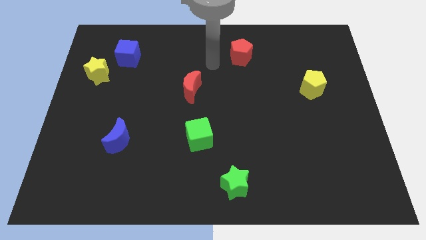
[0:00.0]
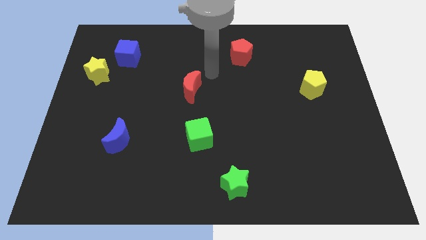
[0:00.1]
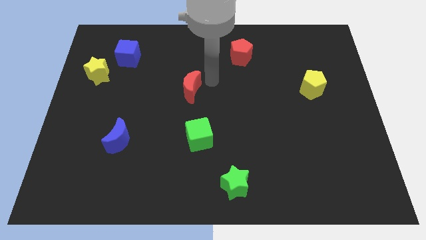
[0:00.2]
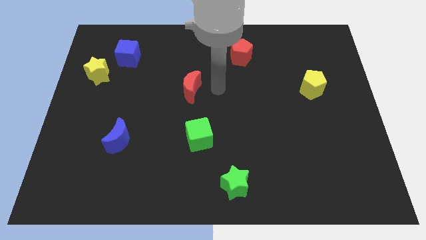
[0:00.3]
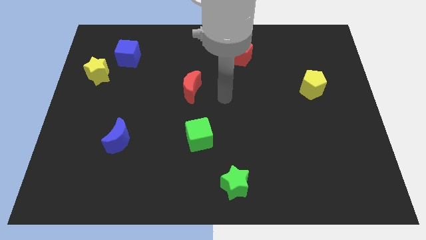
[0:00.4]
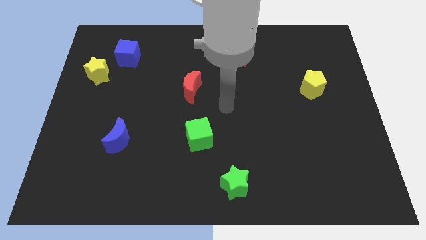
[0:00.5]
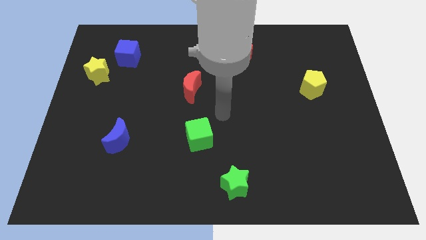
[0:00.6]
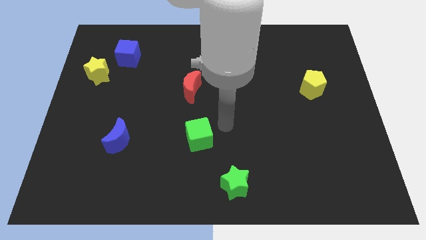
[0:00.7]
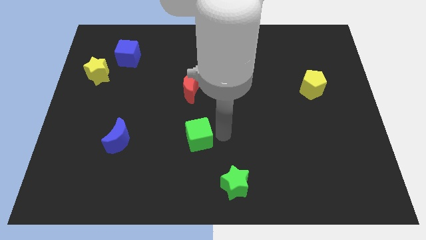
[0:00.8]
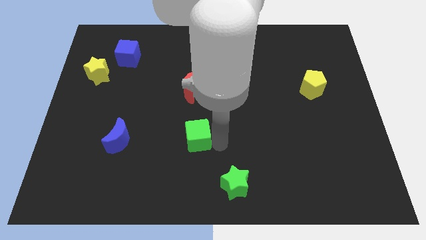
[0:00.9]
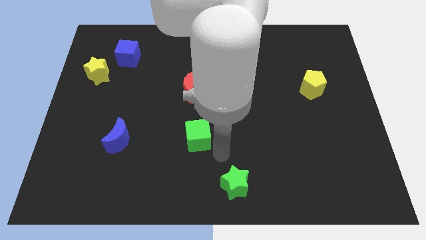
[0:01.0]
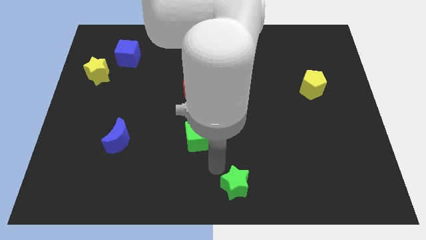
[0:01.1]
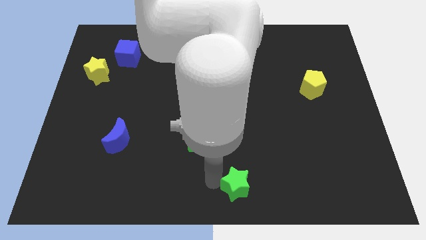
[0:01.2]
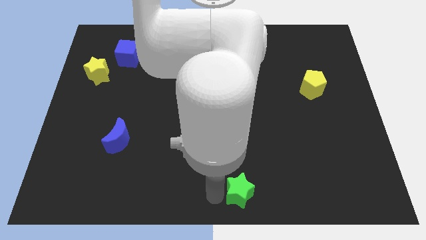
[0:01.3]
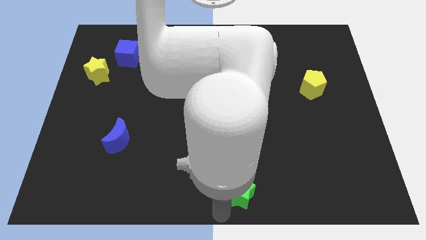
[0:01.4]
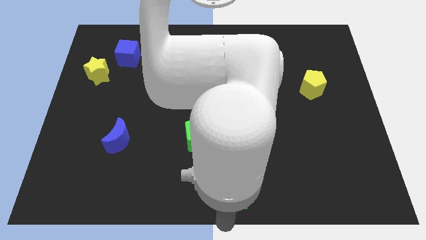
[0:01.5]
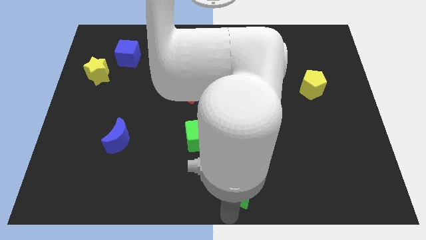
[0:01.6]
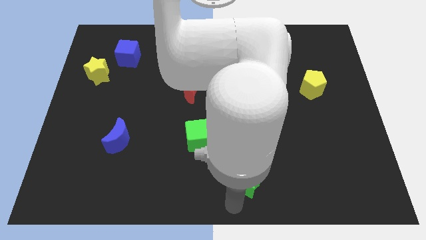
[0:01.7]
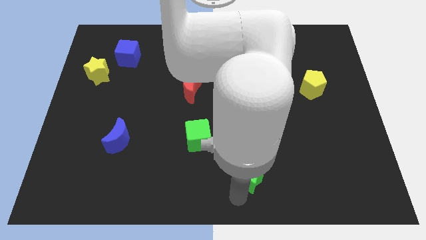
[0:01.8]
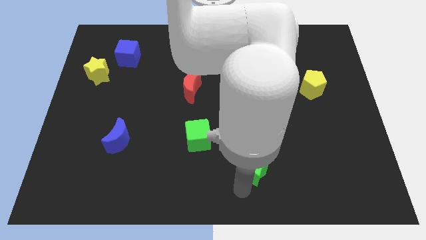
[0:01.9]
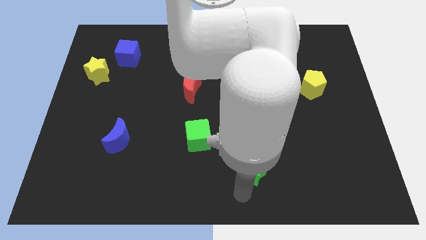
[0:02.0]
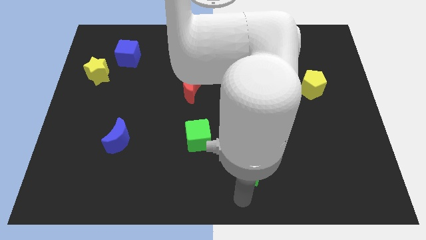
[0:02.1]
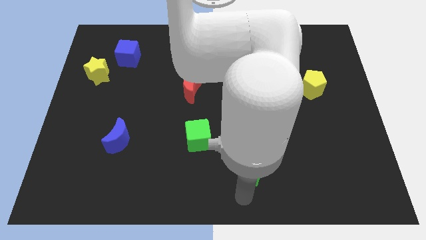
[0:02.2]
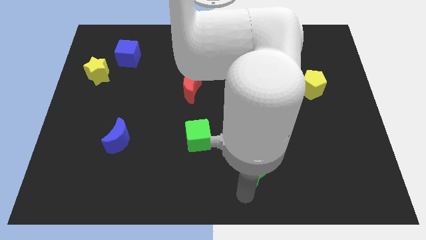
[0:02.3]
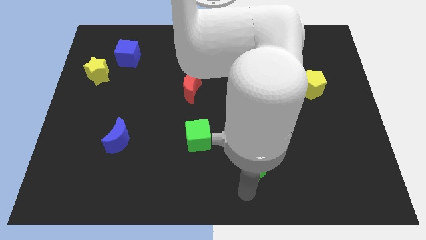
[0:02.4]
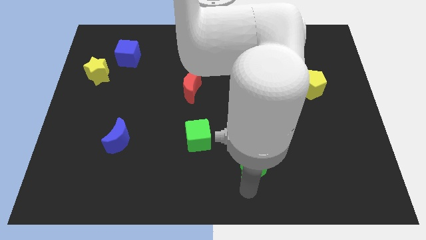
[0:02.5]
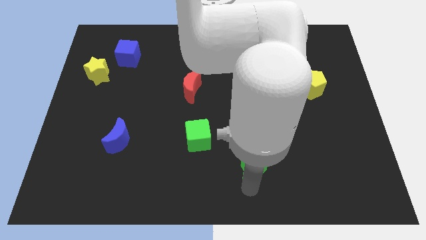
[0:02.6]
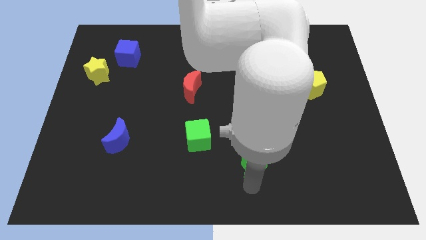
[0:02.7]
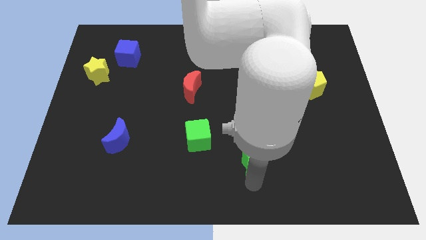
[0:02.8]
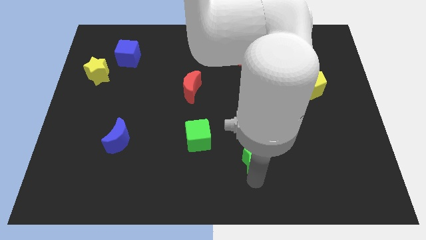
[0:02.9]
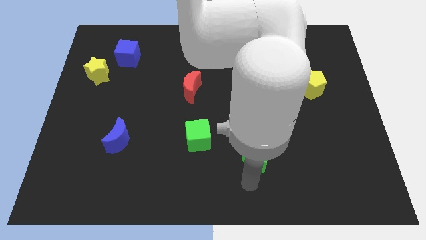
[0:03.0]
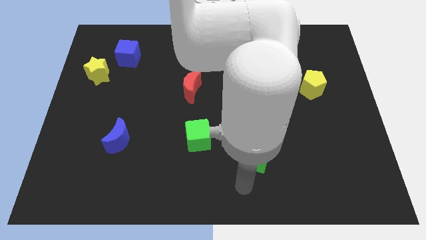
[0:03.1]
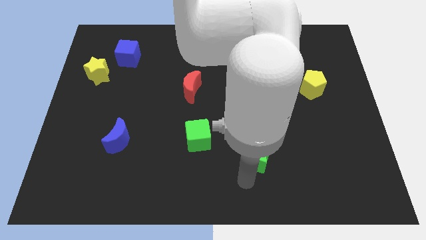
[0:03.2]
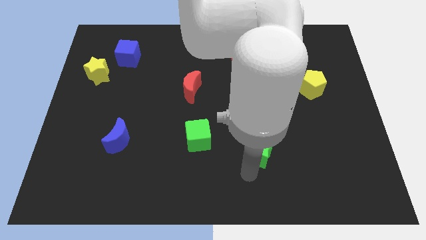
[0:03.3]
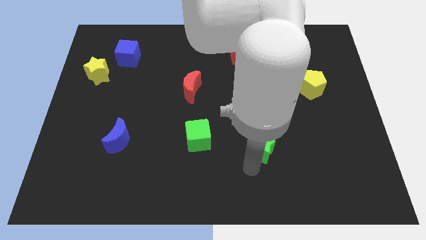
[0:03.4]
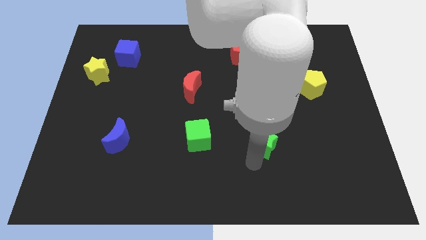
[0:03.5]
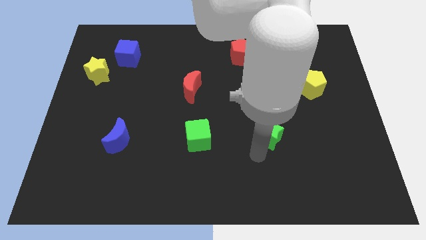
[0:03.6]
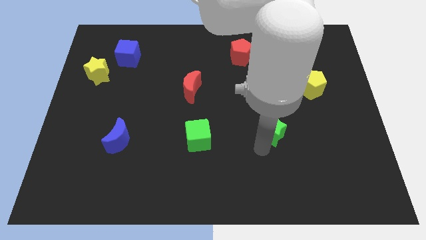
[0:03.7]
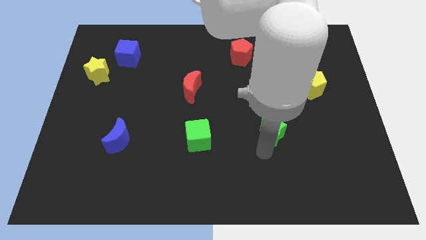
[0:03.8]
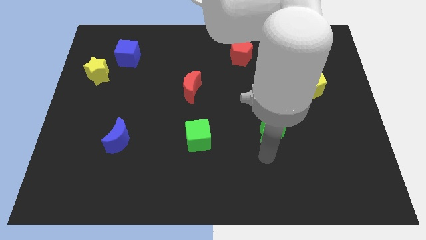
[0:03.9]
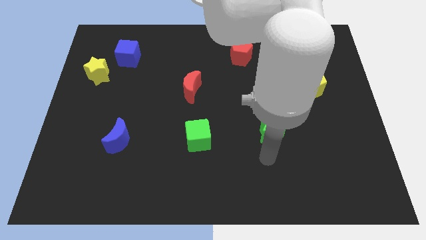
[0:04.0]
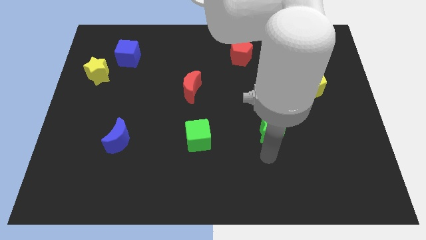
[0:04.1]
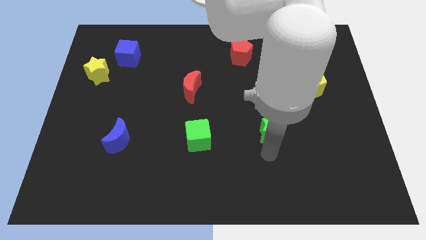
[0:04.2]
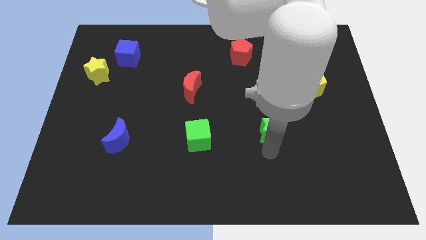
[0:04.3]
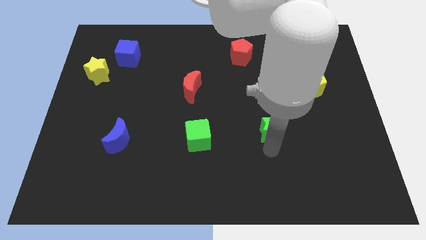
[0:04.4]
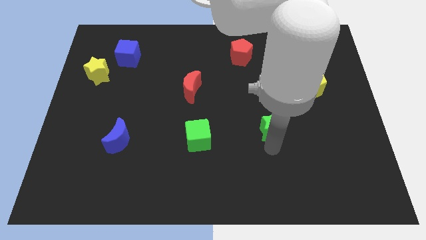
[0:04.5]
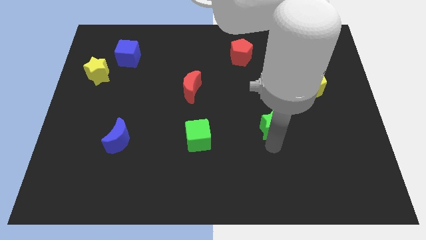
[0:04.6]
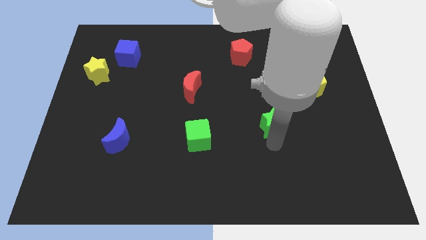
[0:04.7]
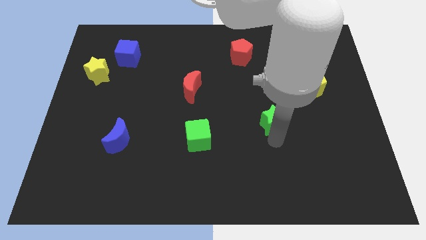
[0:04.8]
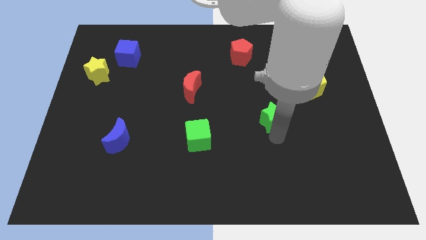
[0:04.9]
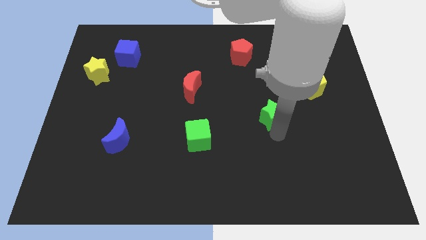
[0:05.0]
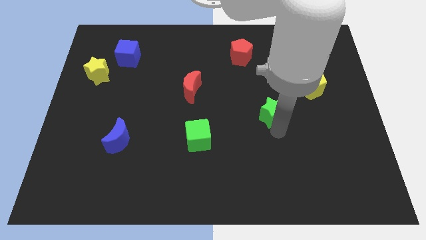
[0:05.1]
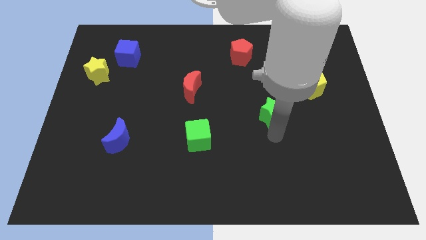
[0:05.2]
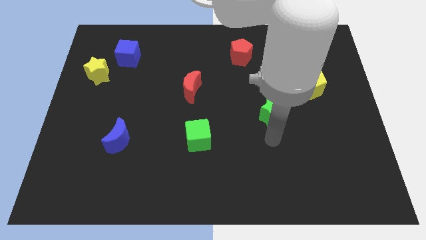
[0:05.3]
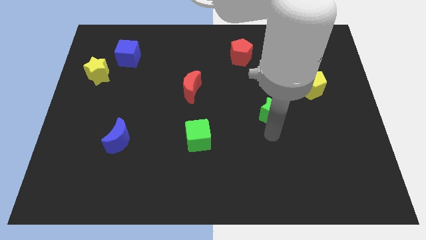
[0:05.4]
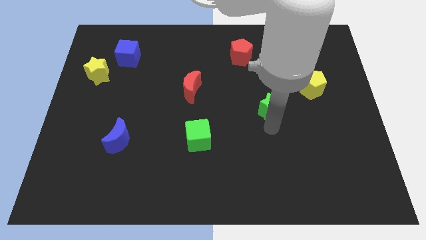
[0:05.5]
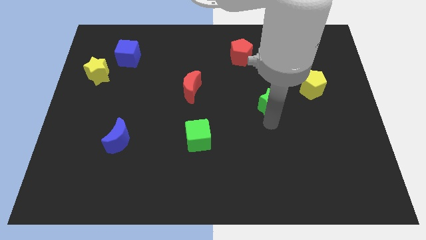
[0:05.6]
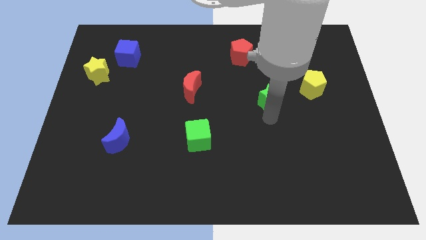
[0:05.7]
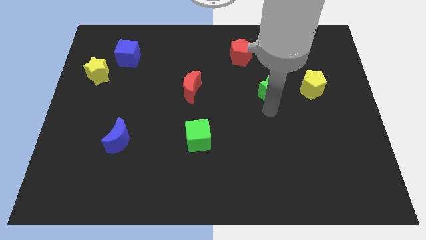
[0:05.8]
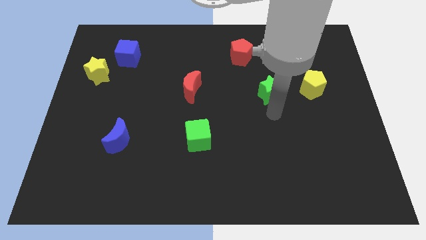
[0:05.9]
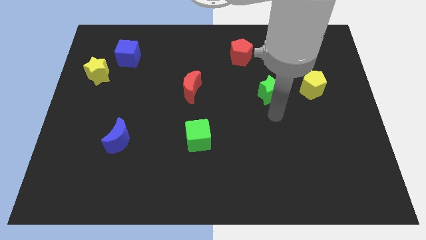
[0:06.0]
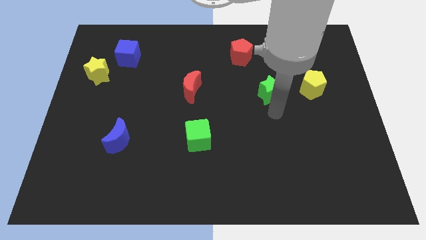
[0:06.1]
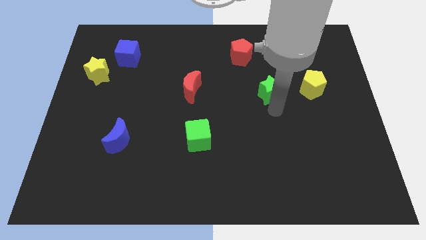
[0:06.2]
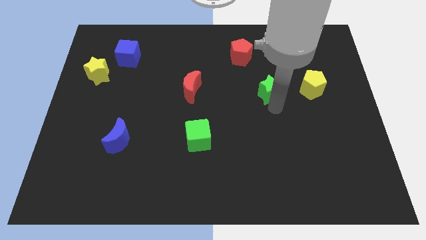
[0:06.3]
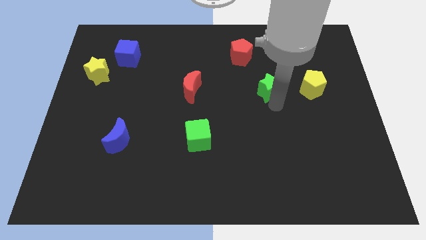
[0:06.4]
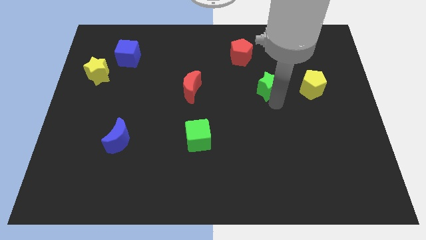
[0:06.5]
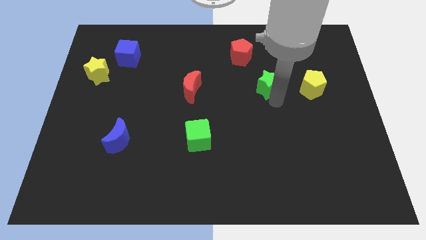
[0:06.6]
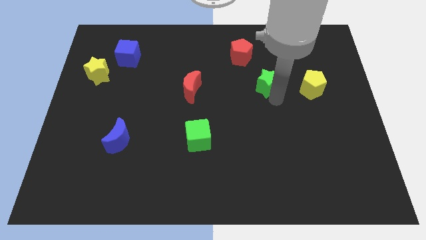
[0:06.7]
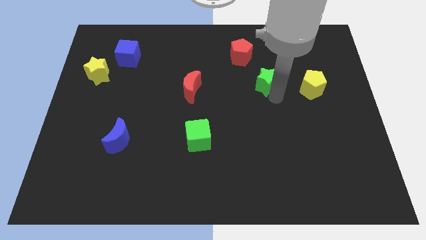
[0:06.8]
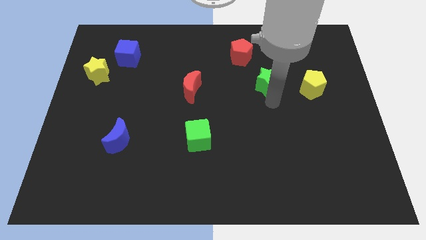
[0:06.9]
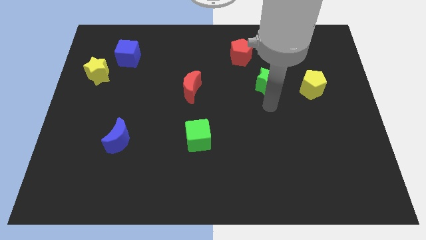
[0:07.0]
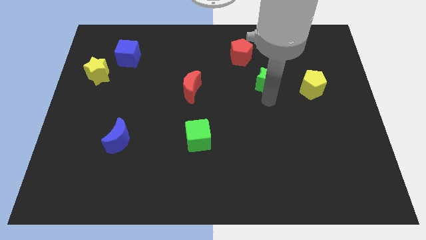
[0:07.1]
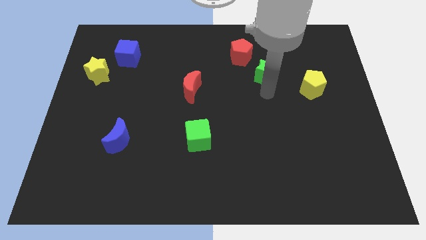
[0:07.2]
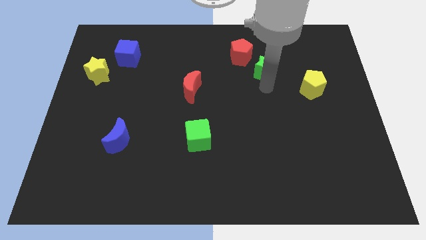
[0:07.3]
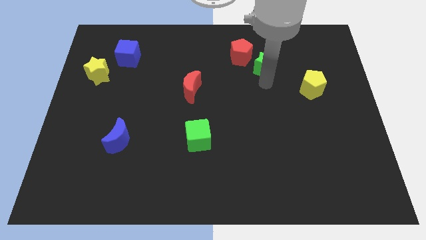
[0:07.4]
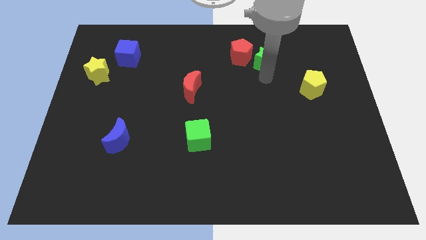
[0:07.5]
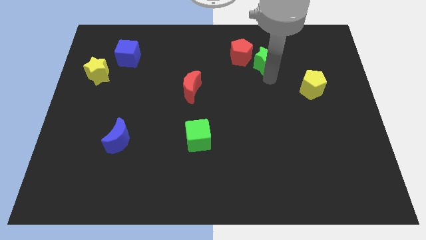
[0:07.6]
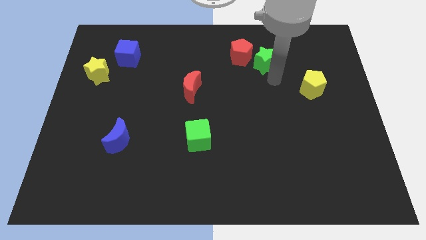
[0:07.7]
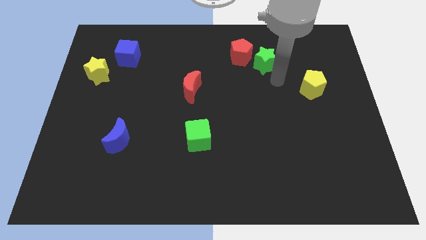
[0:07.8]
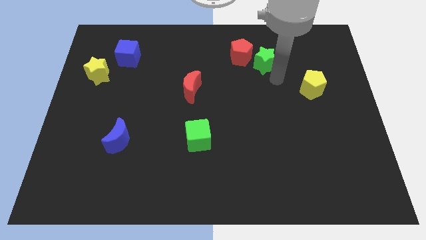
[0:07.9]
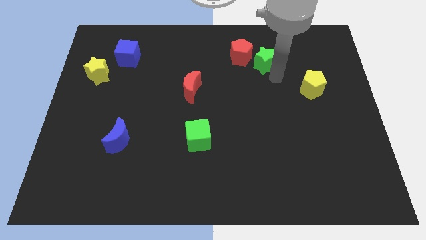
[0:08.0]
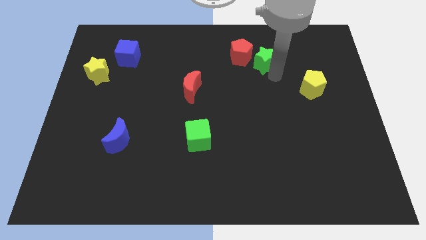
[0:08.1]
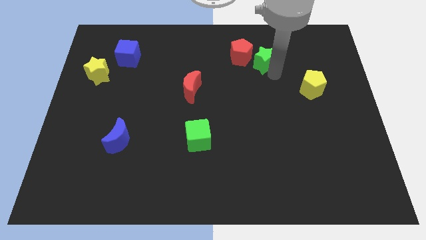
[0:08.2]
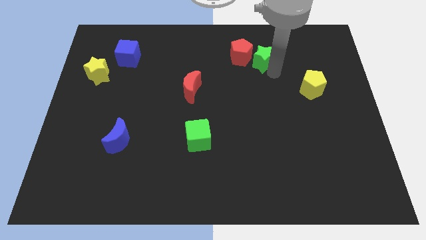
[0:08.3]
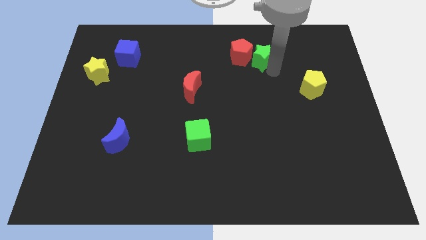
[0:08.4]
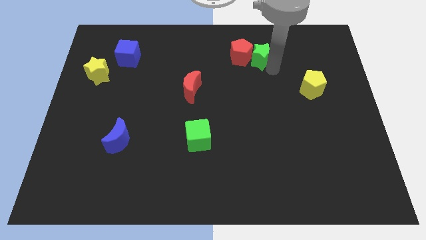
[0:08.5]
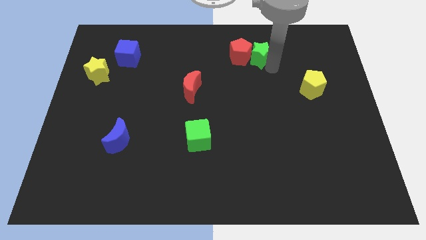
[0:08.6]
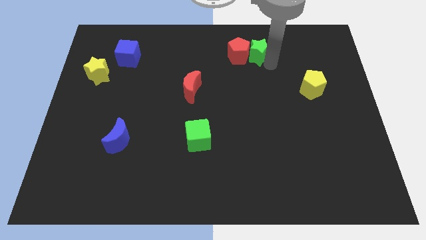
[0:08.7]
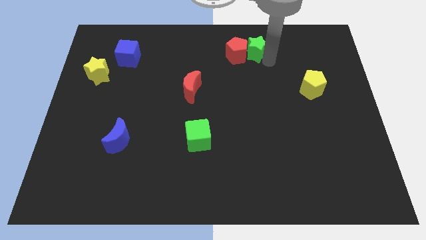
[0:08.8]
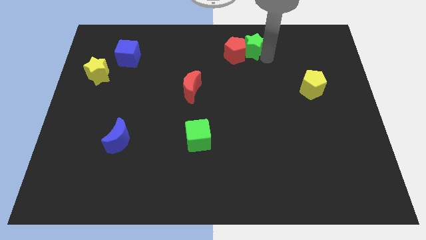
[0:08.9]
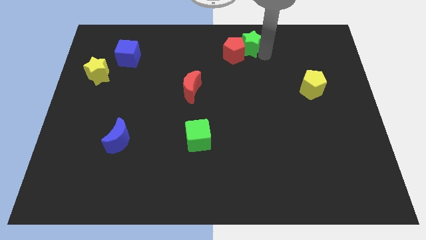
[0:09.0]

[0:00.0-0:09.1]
put the green star to the top side
